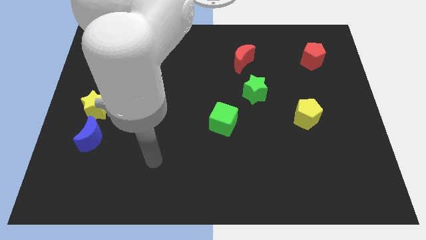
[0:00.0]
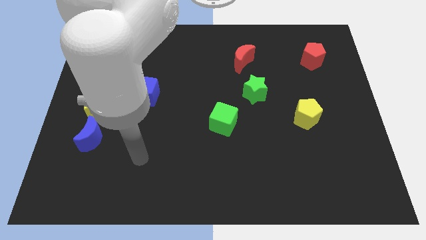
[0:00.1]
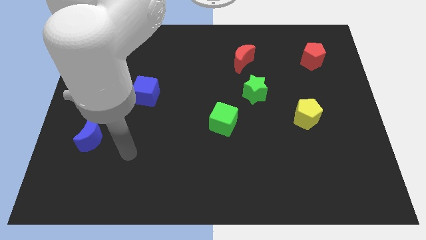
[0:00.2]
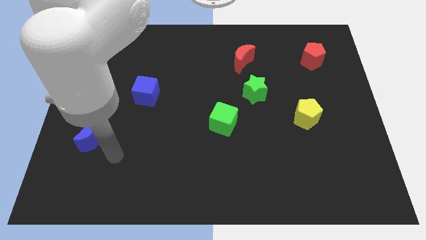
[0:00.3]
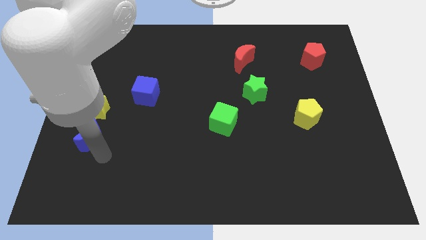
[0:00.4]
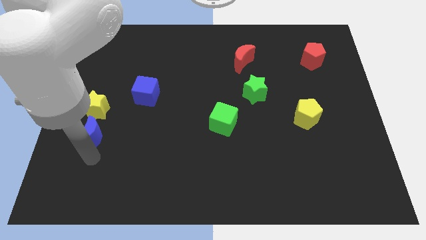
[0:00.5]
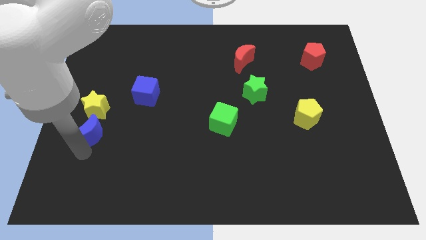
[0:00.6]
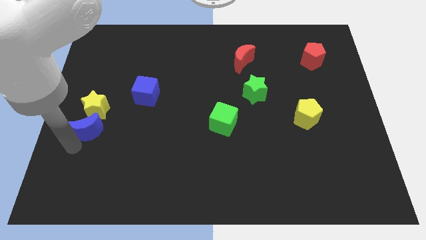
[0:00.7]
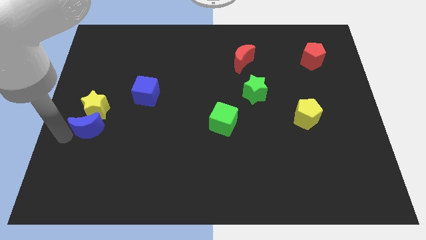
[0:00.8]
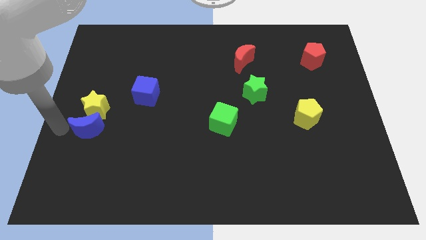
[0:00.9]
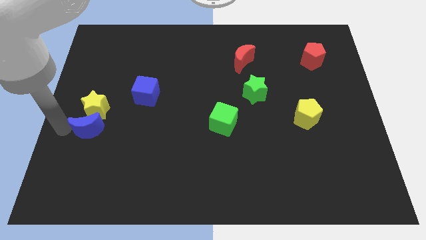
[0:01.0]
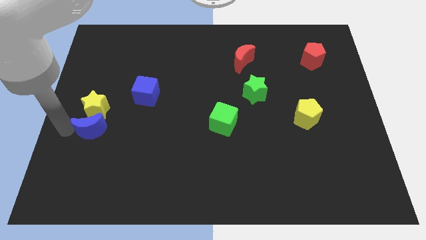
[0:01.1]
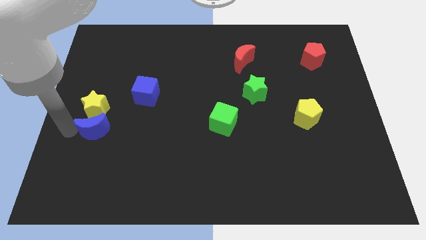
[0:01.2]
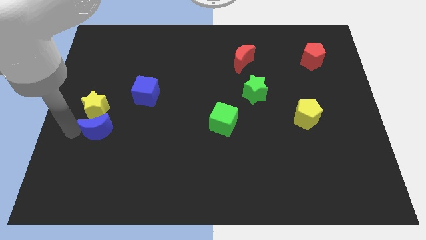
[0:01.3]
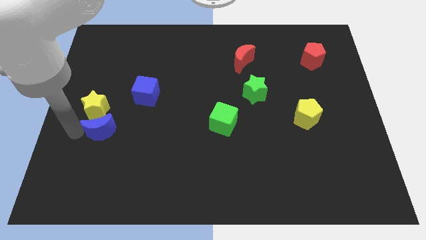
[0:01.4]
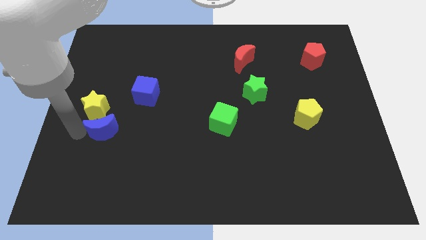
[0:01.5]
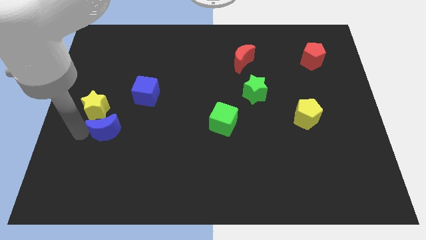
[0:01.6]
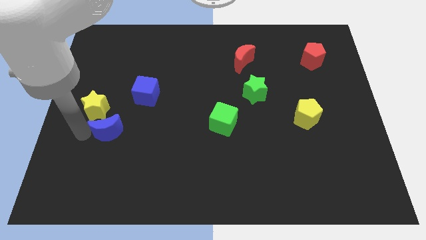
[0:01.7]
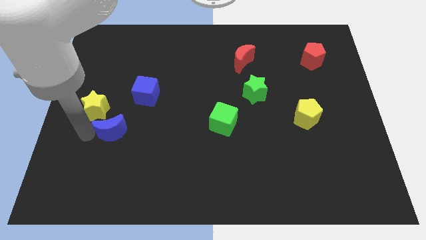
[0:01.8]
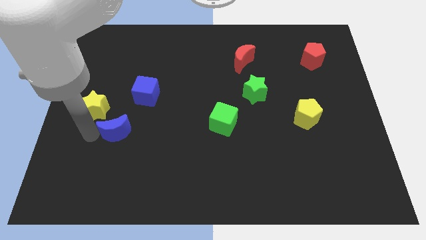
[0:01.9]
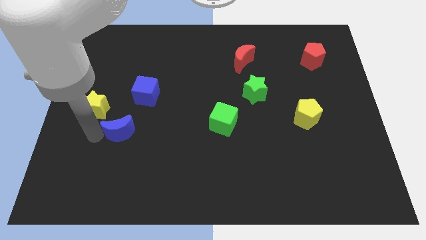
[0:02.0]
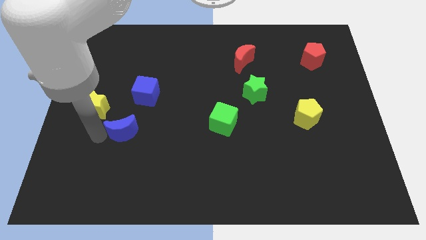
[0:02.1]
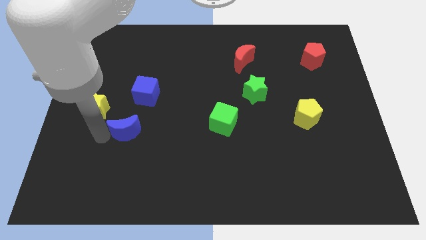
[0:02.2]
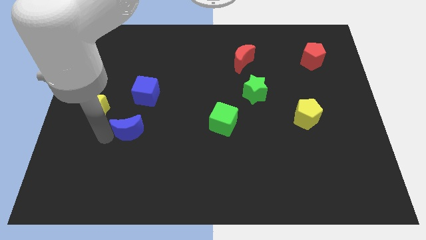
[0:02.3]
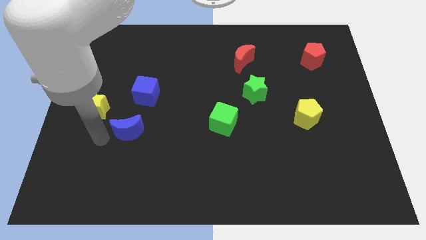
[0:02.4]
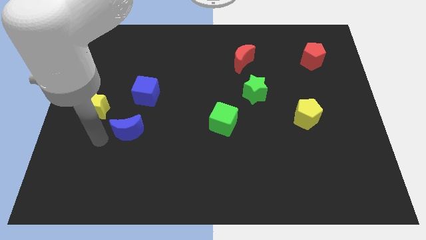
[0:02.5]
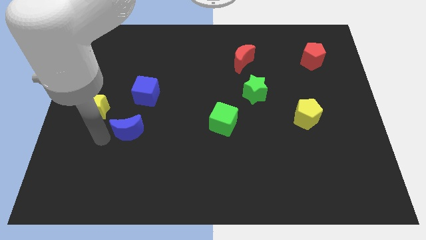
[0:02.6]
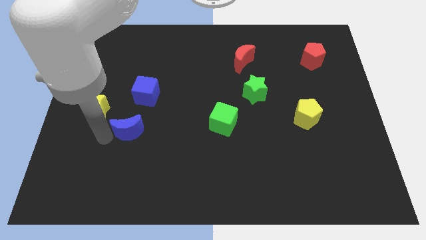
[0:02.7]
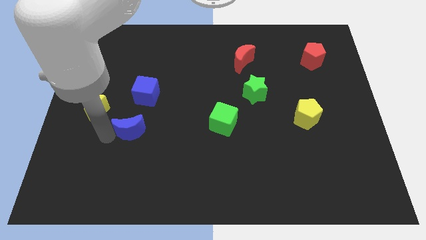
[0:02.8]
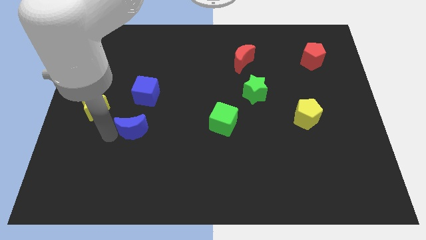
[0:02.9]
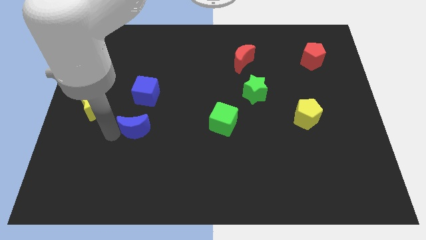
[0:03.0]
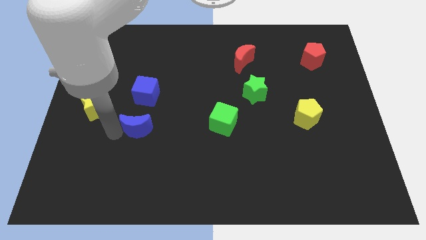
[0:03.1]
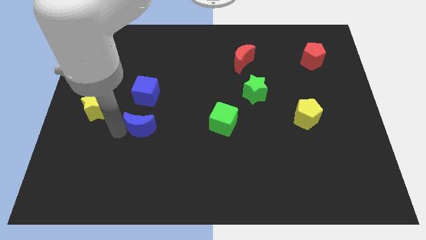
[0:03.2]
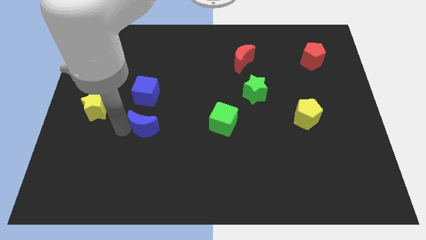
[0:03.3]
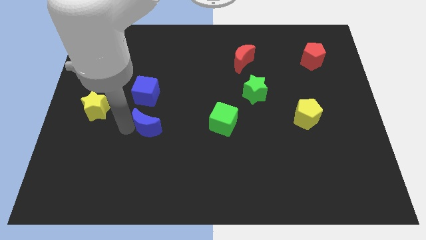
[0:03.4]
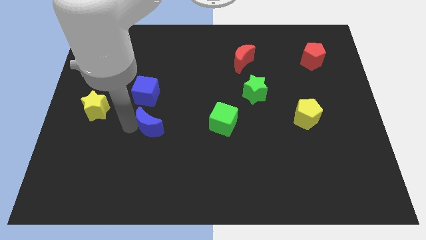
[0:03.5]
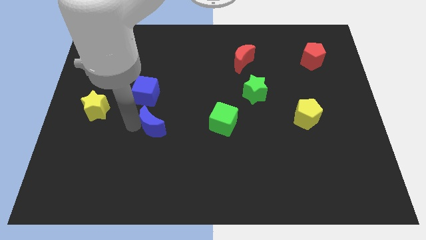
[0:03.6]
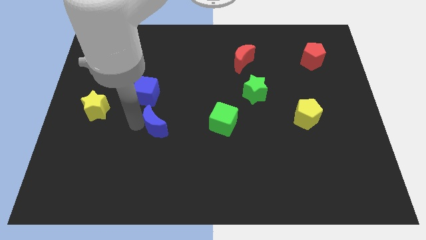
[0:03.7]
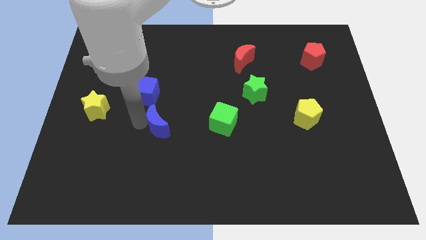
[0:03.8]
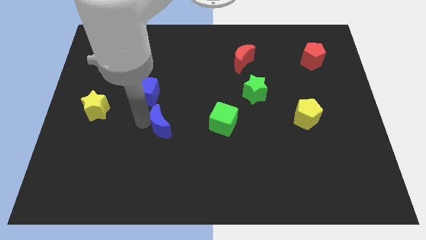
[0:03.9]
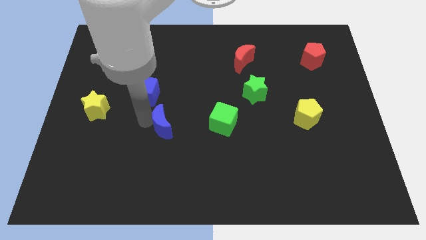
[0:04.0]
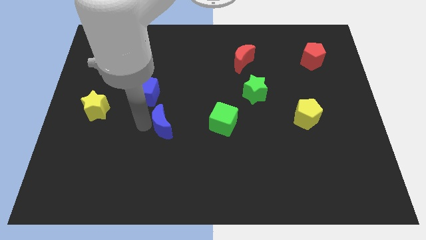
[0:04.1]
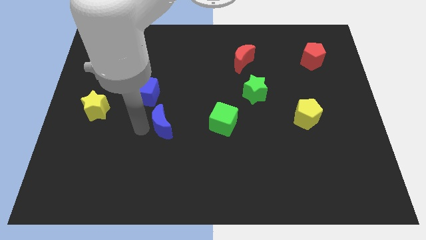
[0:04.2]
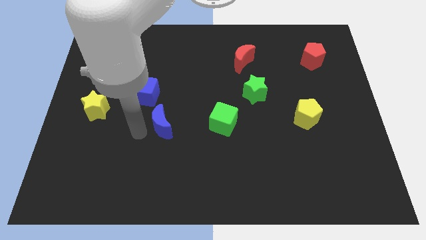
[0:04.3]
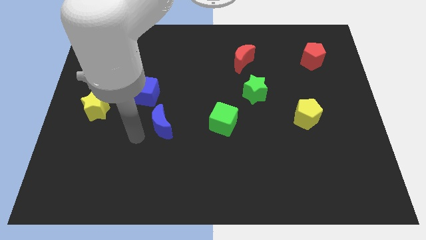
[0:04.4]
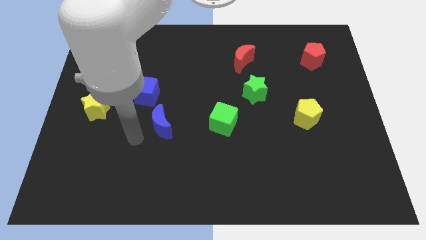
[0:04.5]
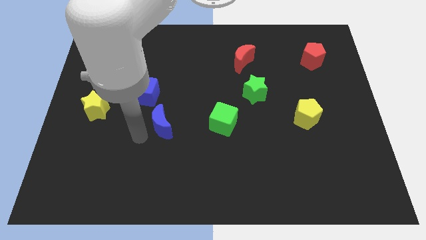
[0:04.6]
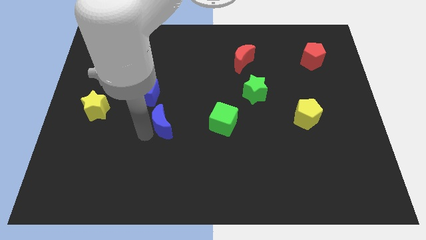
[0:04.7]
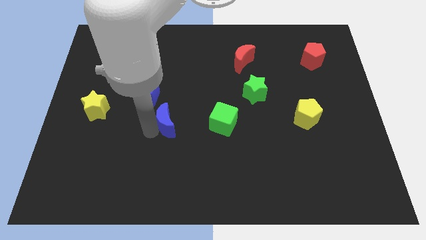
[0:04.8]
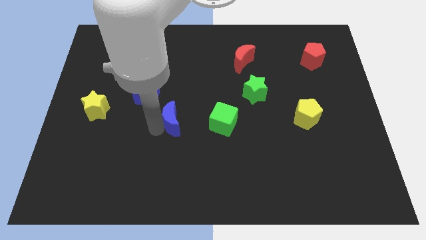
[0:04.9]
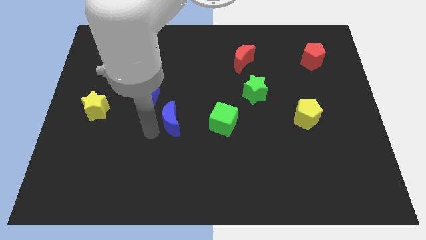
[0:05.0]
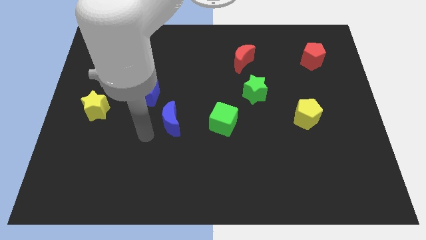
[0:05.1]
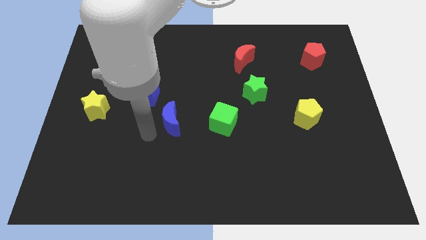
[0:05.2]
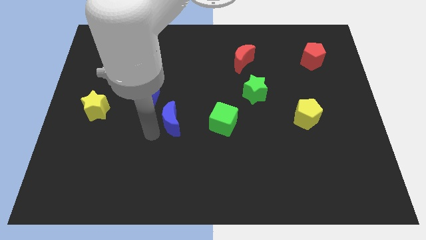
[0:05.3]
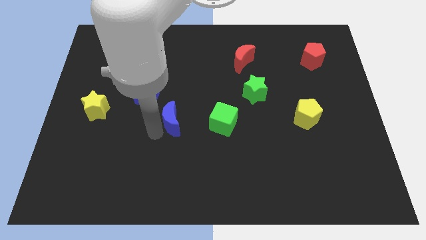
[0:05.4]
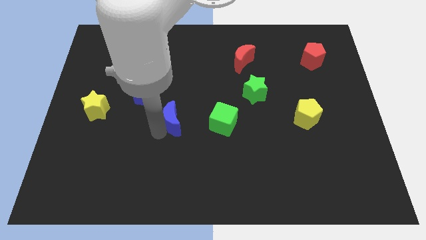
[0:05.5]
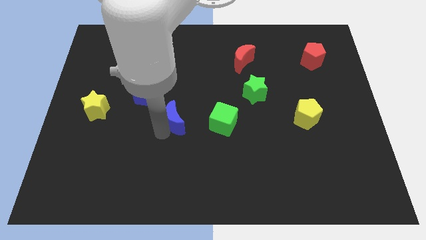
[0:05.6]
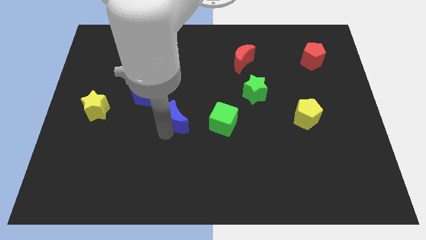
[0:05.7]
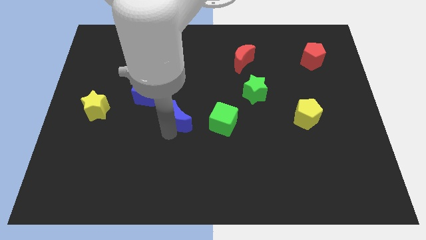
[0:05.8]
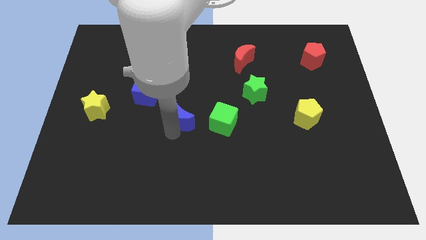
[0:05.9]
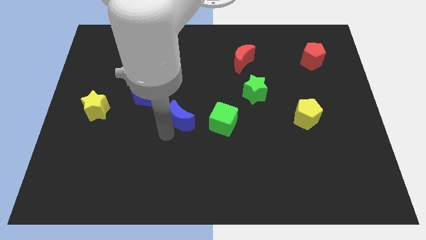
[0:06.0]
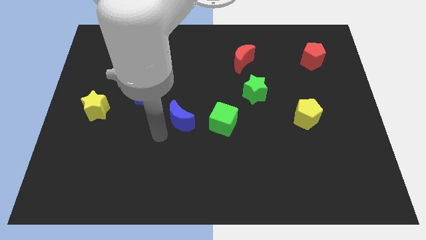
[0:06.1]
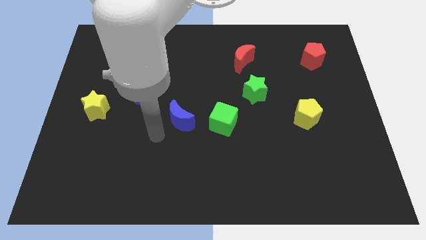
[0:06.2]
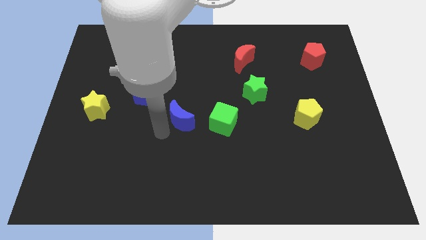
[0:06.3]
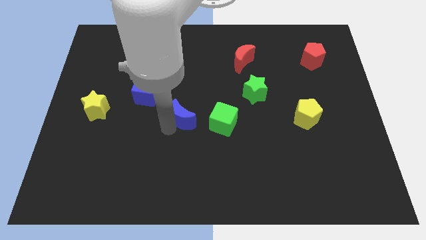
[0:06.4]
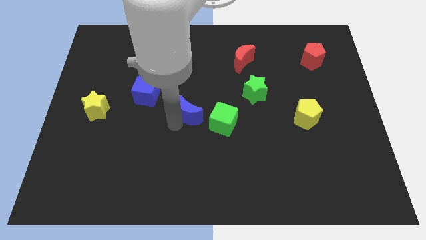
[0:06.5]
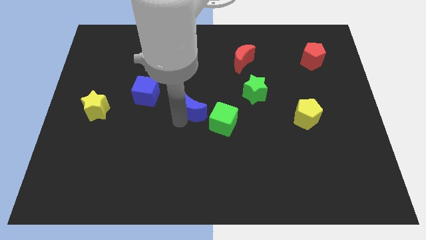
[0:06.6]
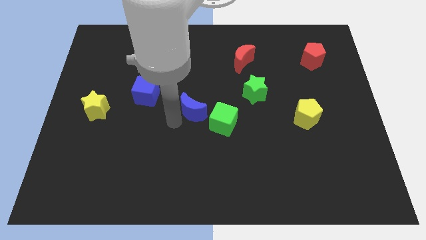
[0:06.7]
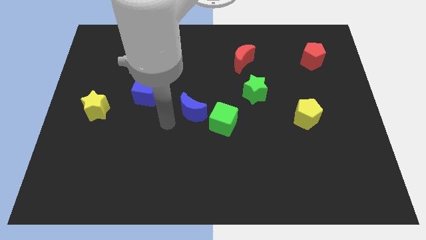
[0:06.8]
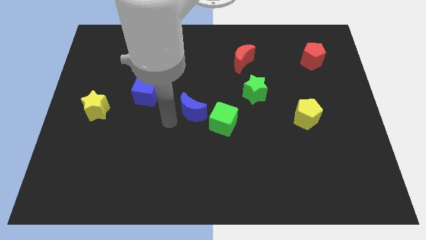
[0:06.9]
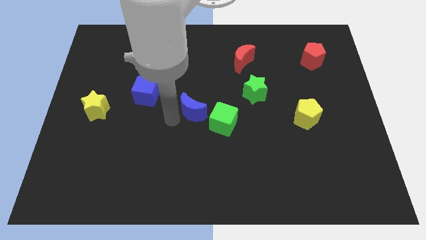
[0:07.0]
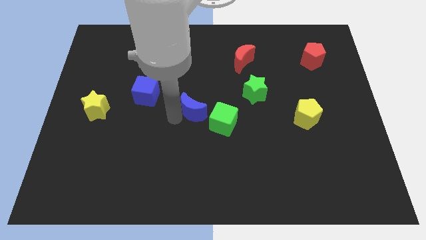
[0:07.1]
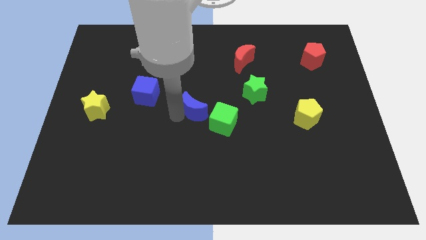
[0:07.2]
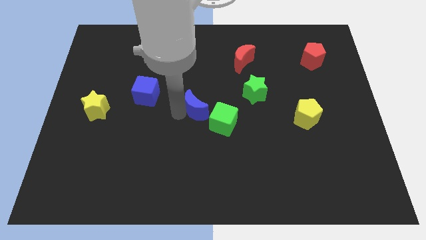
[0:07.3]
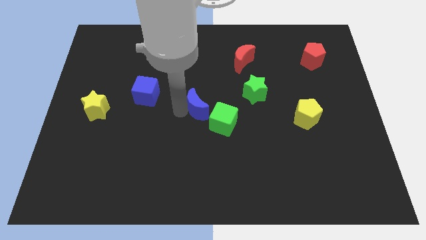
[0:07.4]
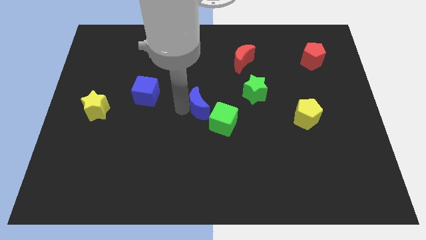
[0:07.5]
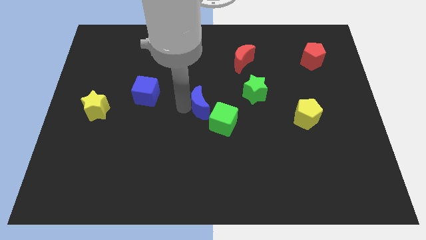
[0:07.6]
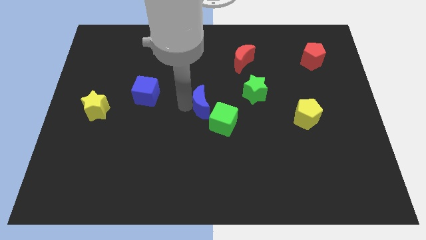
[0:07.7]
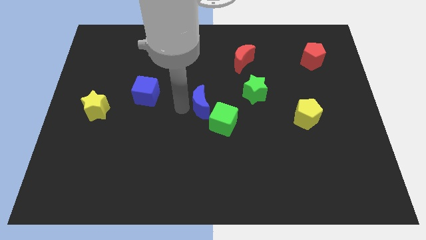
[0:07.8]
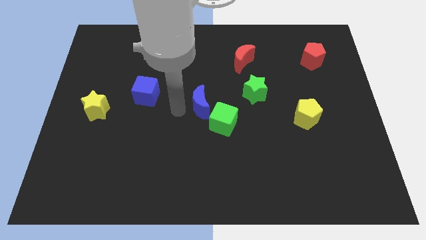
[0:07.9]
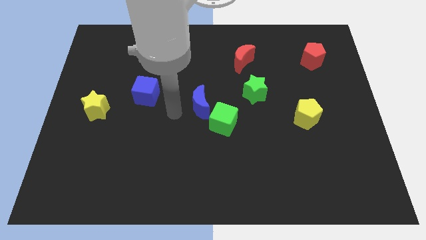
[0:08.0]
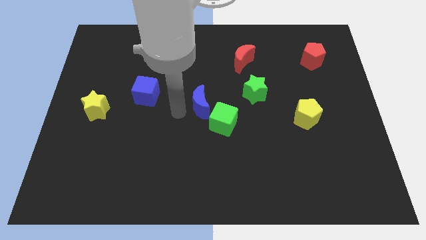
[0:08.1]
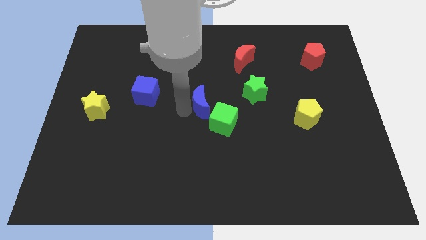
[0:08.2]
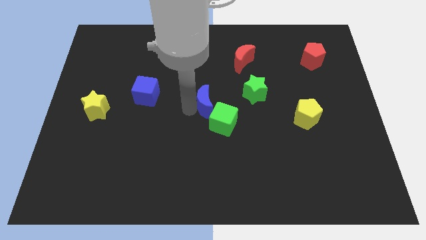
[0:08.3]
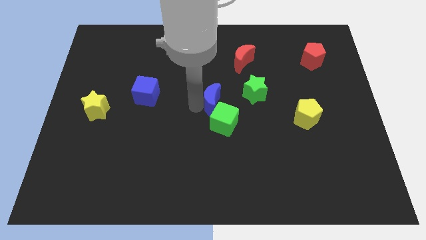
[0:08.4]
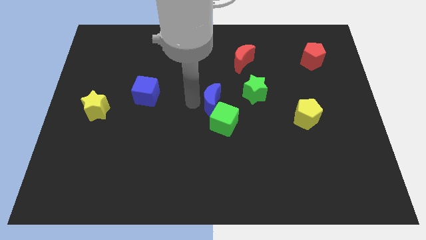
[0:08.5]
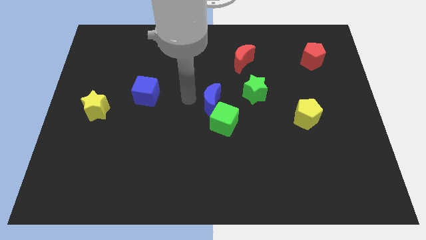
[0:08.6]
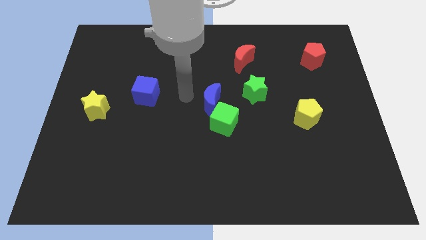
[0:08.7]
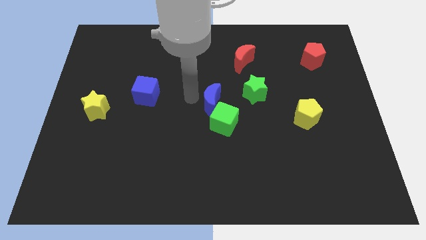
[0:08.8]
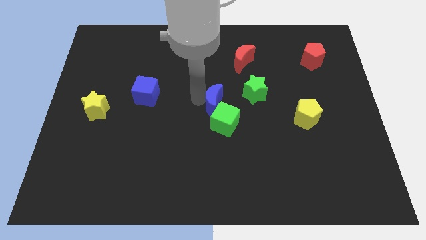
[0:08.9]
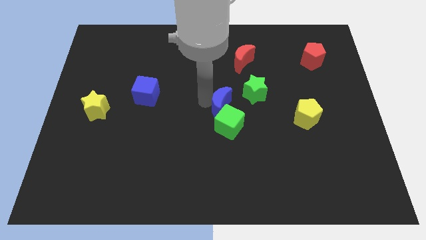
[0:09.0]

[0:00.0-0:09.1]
put the blue moon to the bottom left side of the green star
